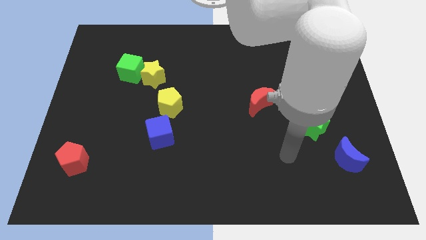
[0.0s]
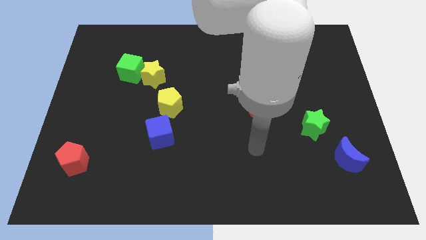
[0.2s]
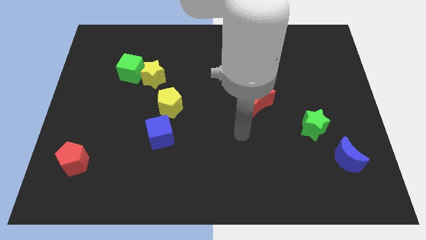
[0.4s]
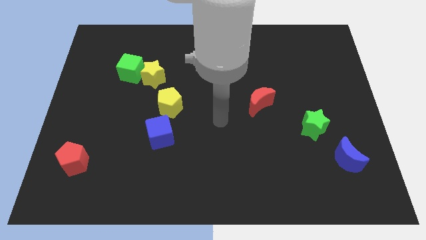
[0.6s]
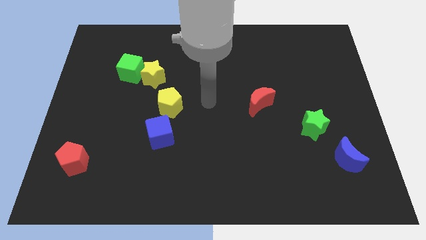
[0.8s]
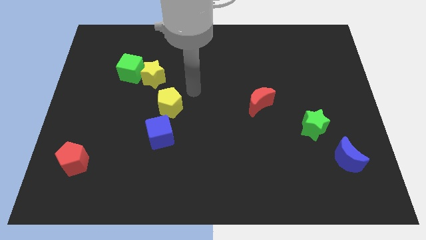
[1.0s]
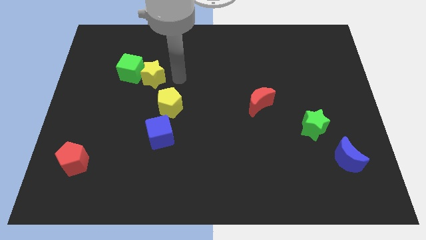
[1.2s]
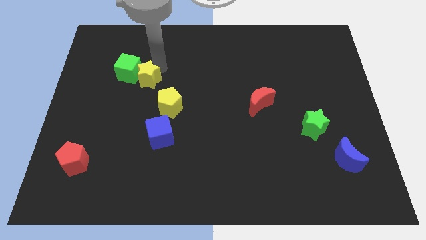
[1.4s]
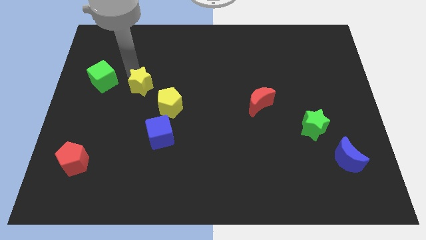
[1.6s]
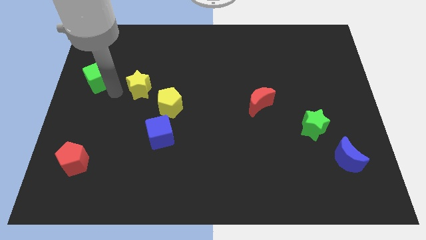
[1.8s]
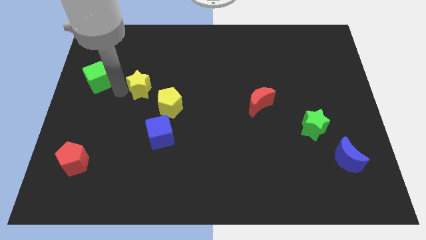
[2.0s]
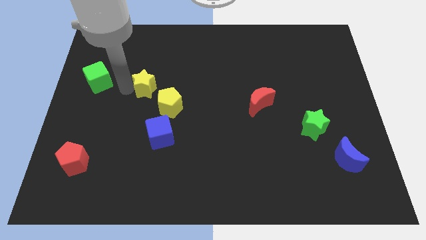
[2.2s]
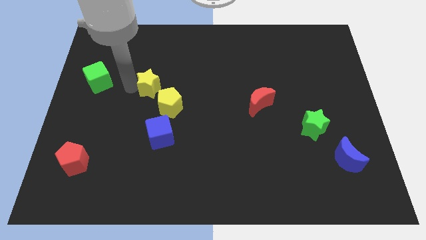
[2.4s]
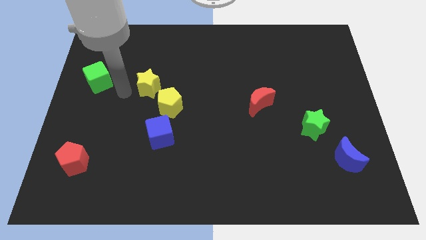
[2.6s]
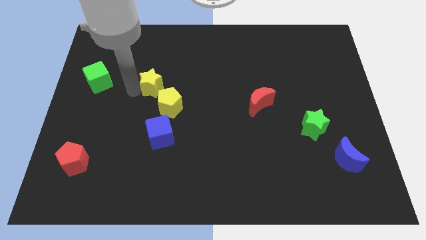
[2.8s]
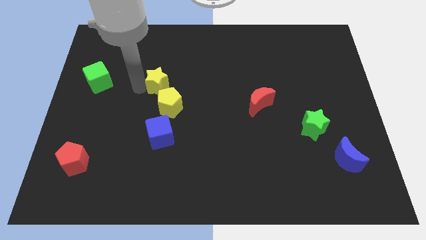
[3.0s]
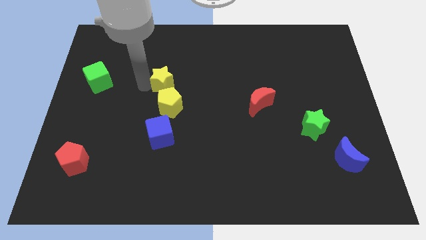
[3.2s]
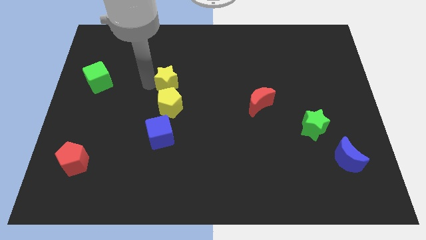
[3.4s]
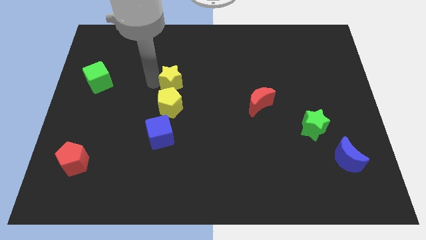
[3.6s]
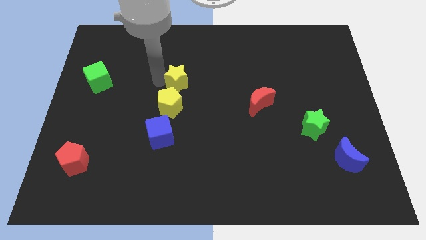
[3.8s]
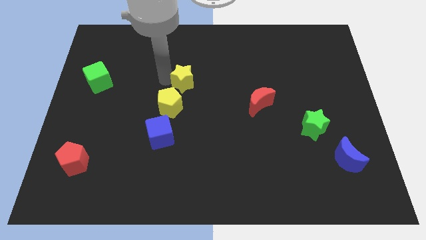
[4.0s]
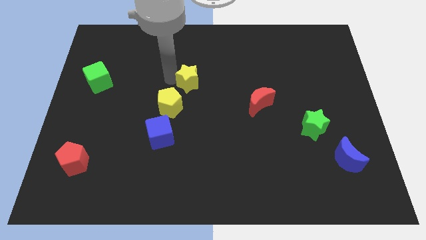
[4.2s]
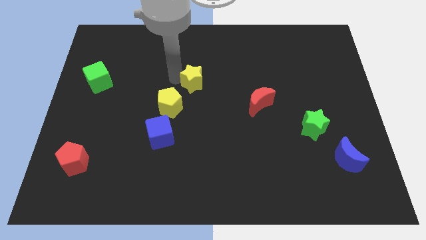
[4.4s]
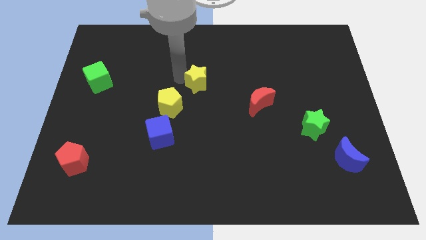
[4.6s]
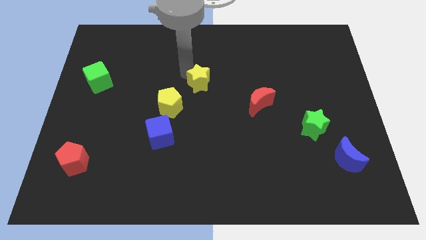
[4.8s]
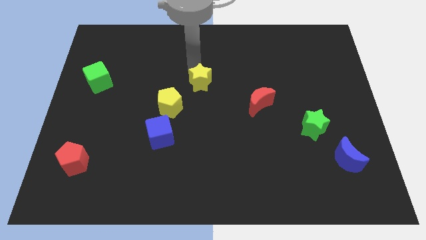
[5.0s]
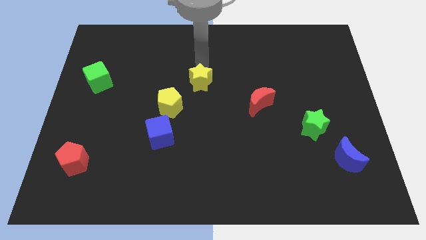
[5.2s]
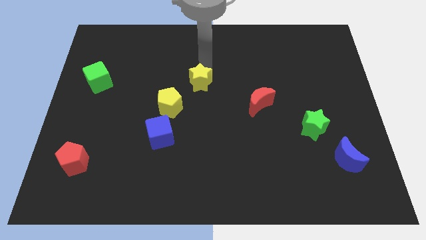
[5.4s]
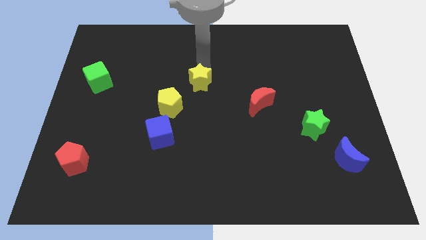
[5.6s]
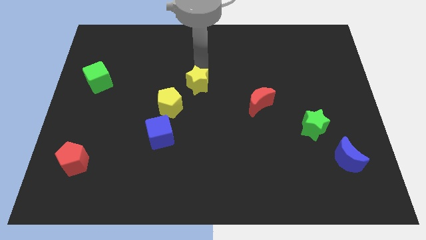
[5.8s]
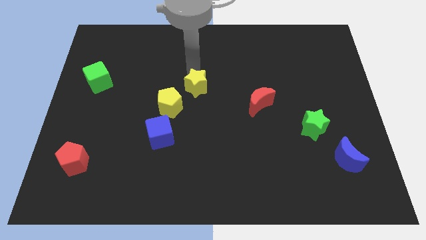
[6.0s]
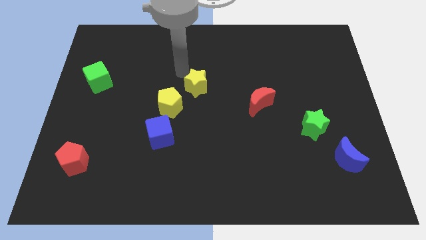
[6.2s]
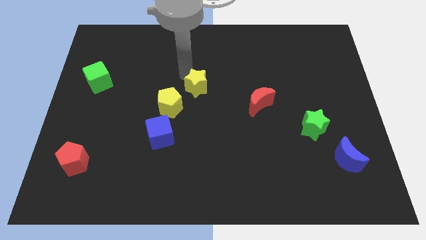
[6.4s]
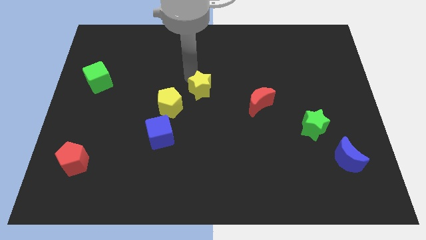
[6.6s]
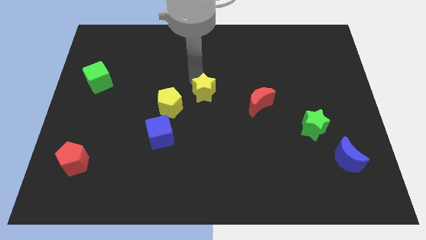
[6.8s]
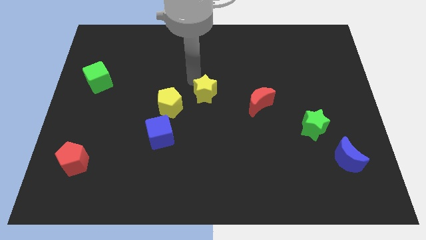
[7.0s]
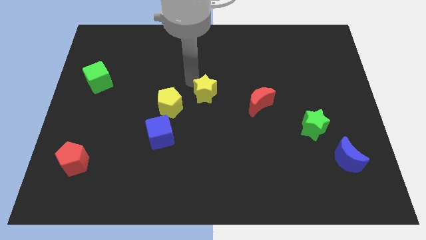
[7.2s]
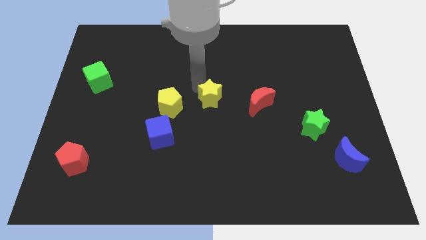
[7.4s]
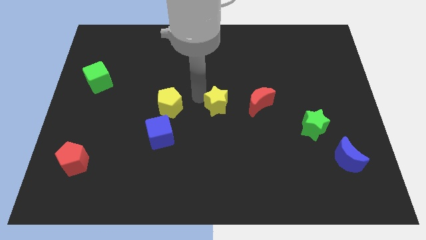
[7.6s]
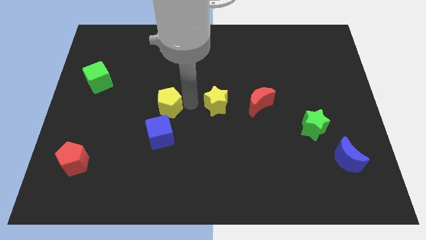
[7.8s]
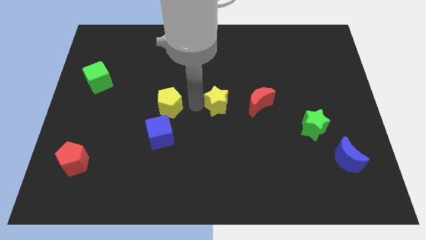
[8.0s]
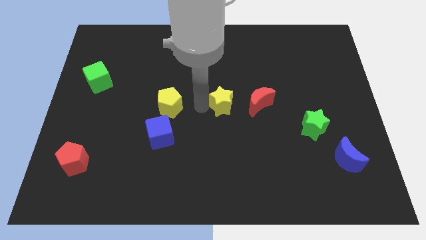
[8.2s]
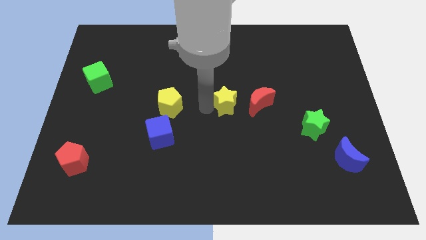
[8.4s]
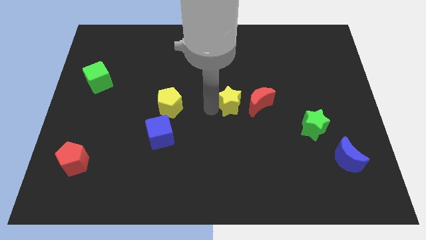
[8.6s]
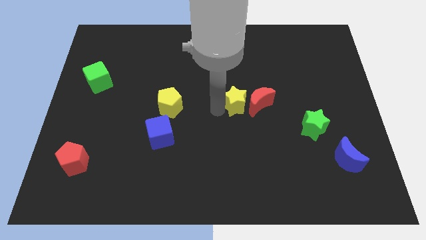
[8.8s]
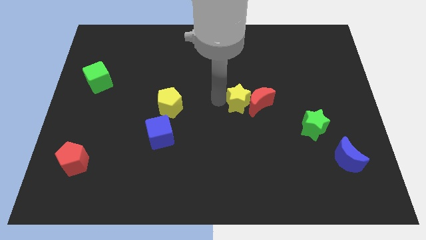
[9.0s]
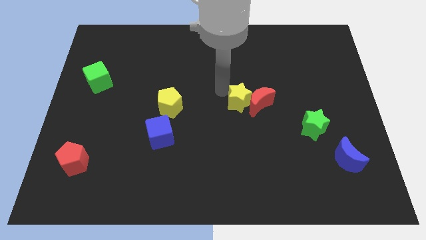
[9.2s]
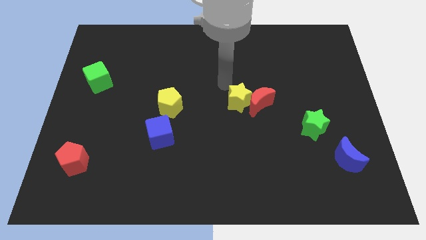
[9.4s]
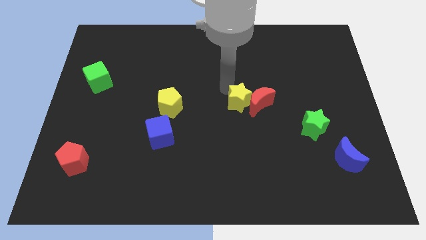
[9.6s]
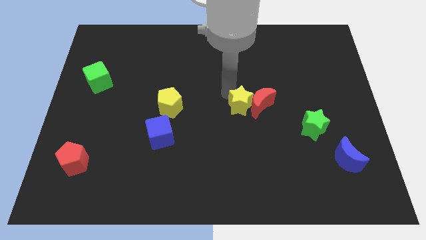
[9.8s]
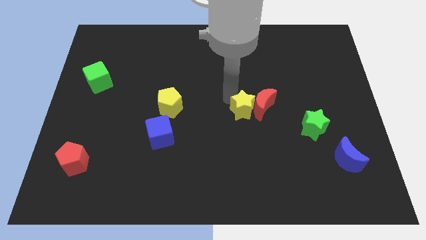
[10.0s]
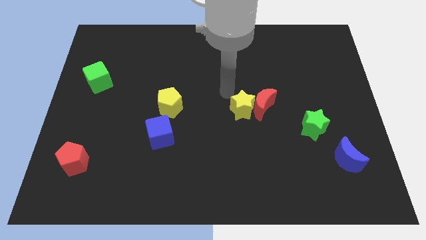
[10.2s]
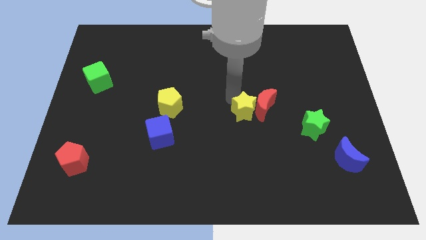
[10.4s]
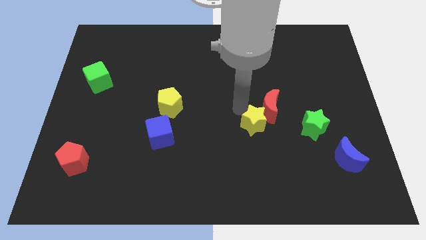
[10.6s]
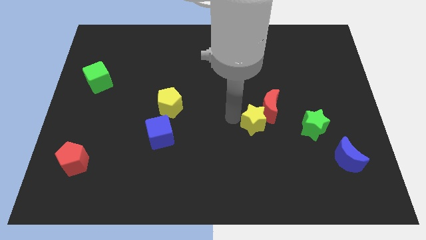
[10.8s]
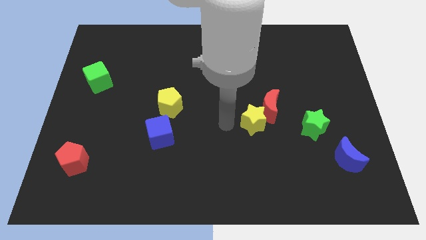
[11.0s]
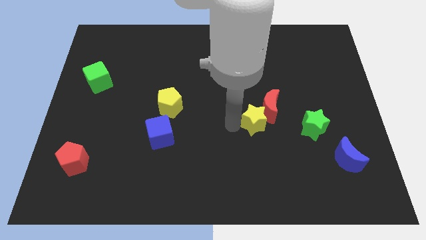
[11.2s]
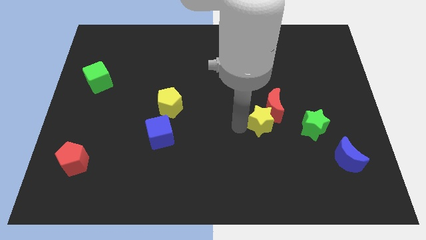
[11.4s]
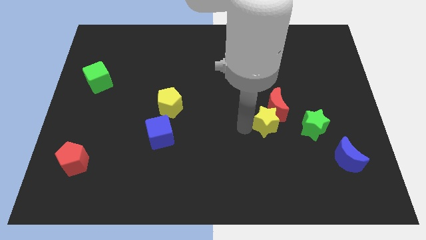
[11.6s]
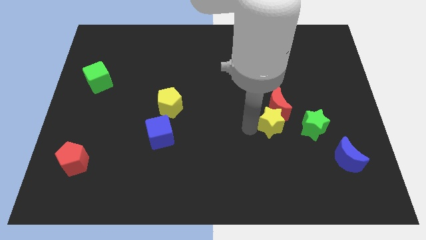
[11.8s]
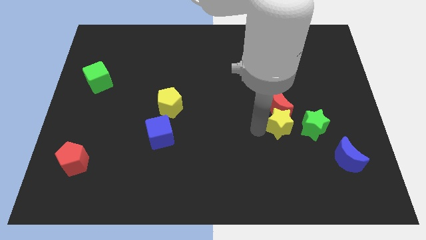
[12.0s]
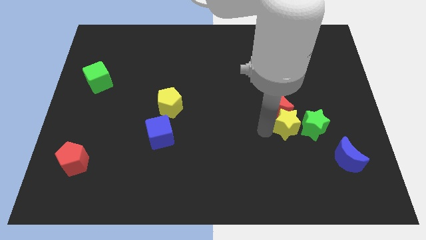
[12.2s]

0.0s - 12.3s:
push the yellow star close to the green star

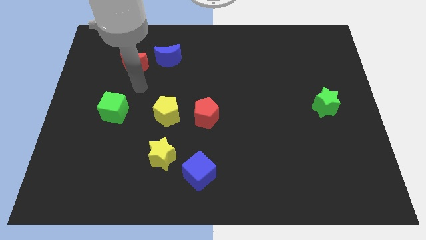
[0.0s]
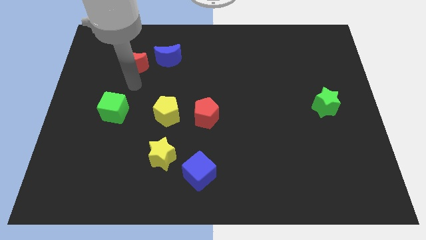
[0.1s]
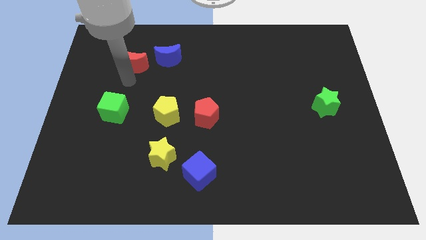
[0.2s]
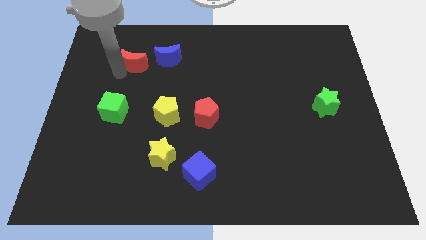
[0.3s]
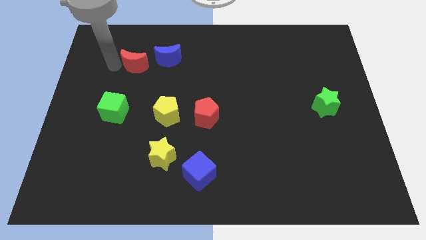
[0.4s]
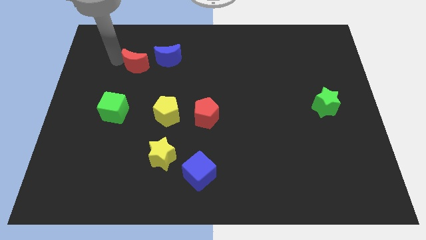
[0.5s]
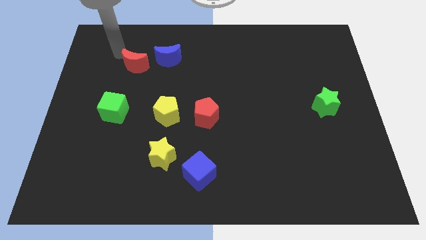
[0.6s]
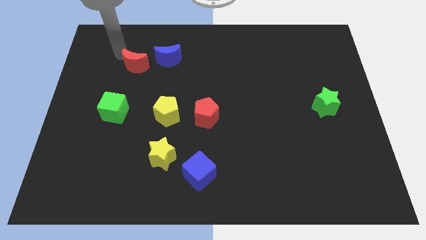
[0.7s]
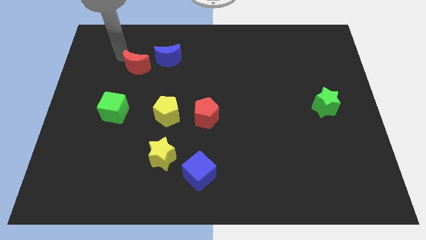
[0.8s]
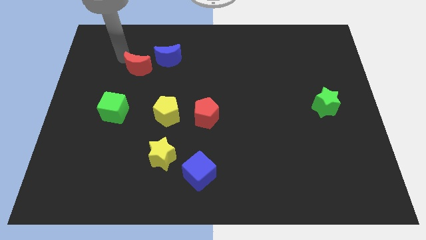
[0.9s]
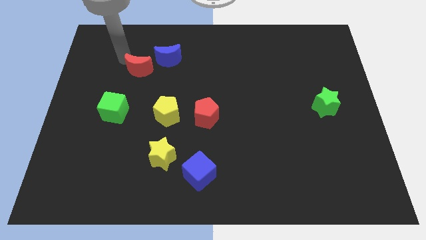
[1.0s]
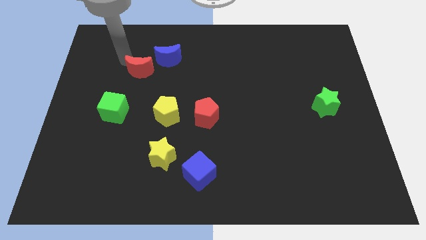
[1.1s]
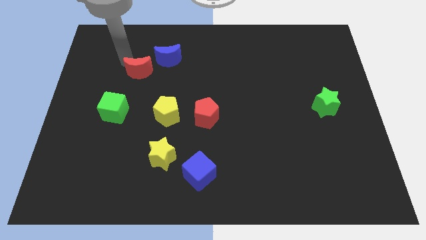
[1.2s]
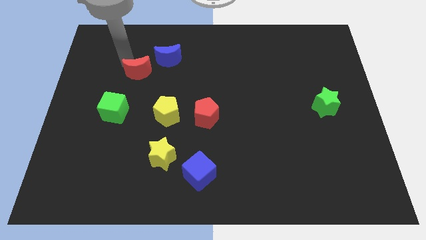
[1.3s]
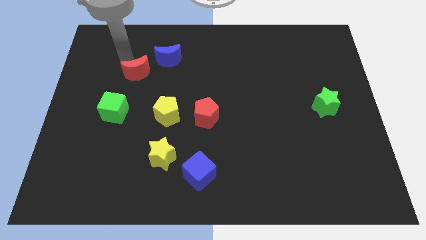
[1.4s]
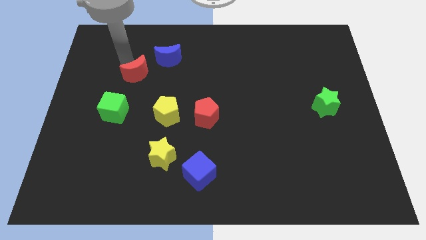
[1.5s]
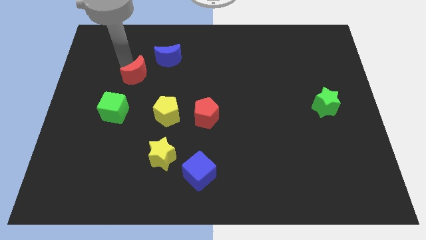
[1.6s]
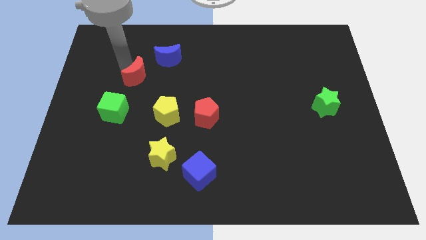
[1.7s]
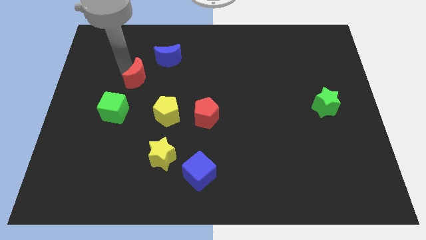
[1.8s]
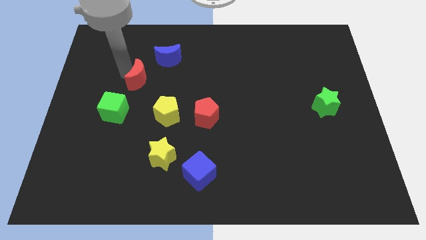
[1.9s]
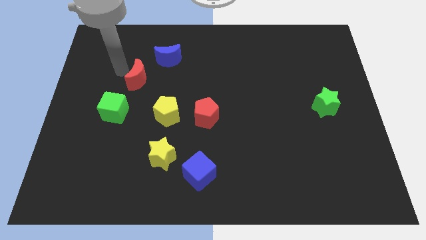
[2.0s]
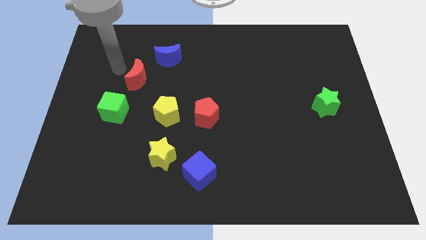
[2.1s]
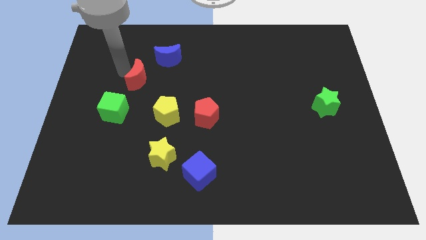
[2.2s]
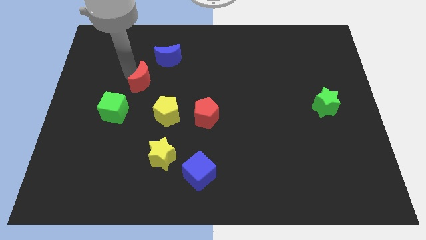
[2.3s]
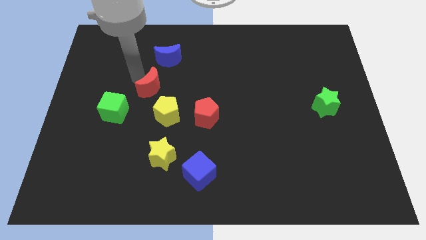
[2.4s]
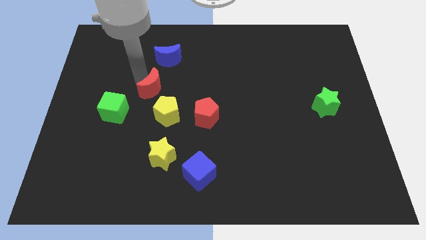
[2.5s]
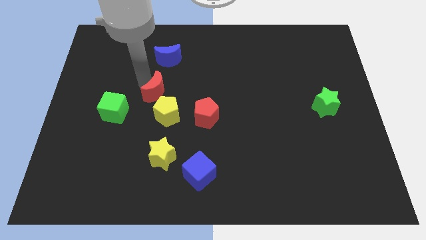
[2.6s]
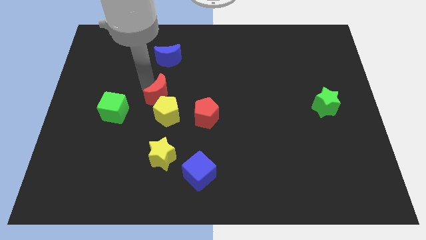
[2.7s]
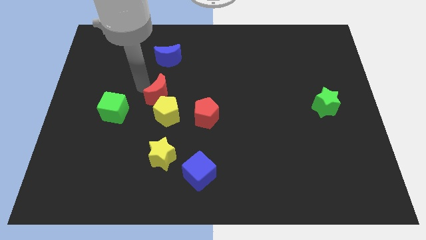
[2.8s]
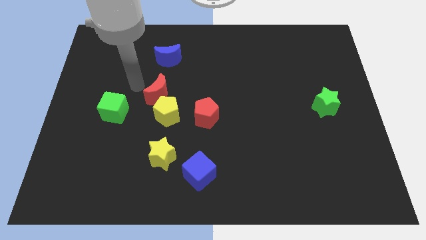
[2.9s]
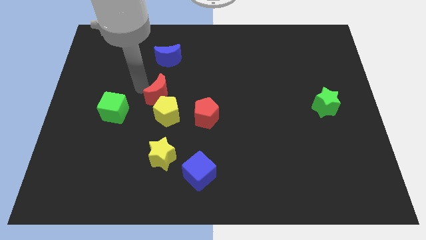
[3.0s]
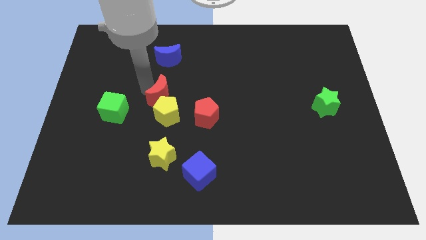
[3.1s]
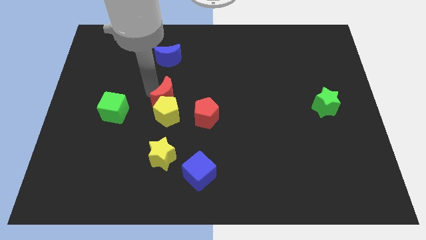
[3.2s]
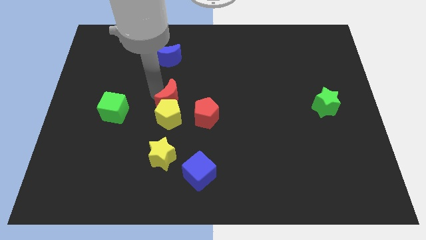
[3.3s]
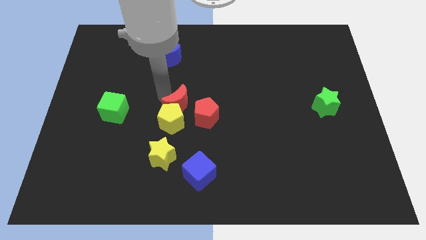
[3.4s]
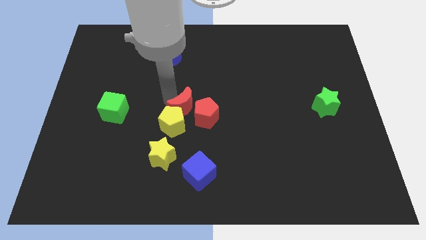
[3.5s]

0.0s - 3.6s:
slide the red moon next to the red pentagon
